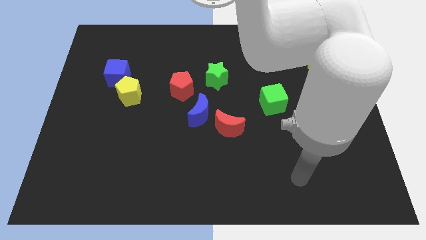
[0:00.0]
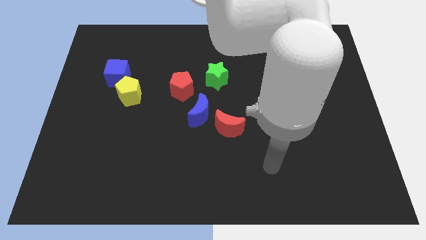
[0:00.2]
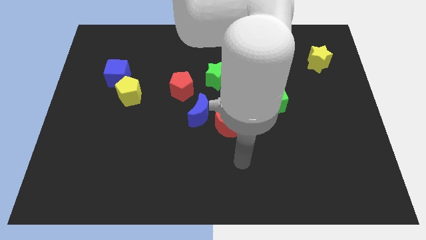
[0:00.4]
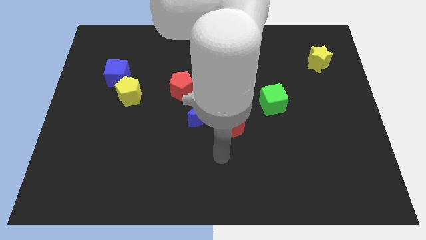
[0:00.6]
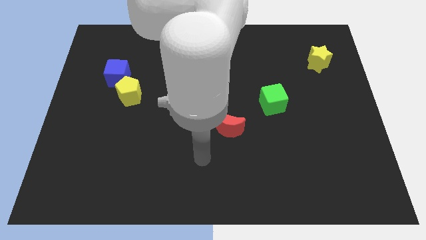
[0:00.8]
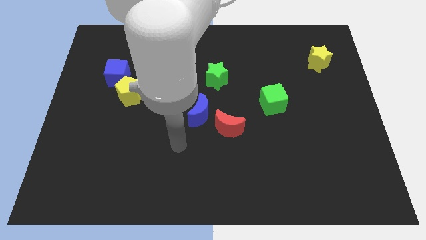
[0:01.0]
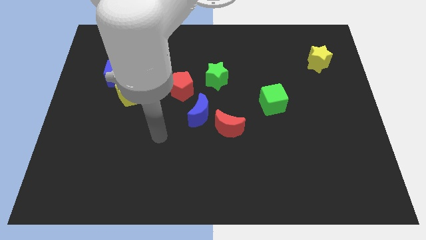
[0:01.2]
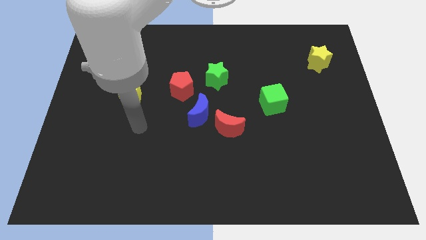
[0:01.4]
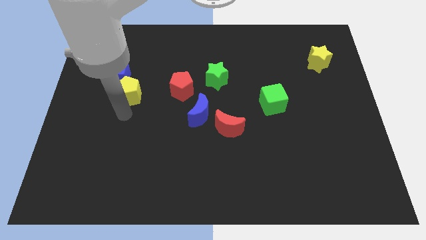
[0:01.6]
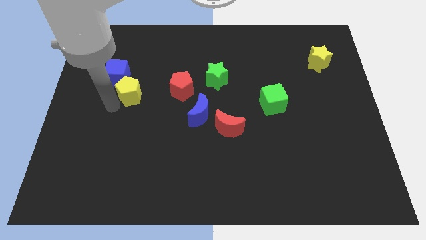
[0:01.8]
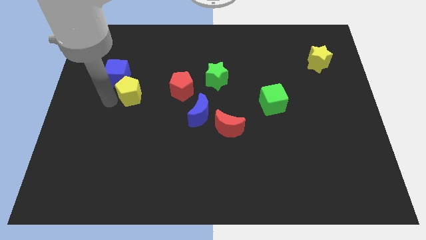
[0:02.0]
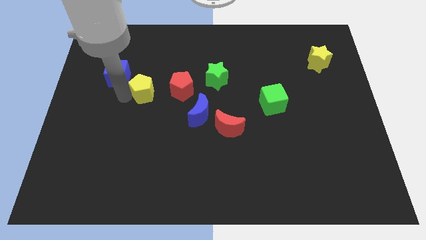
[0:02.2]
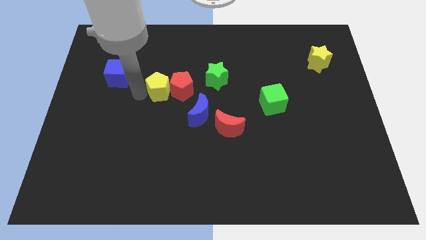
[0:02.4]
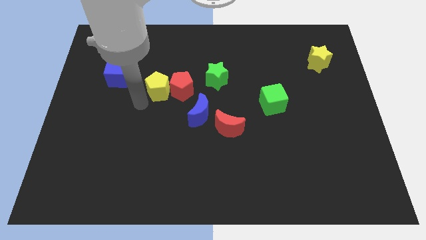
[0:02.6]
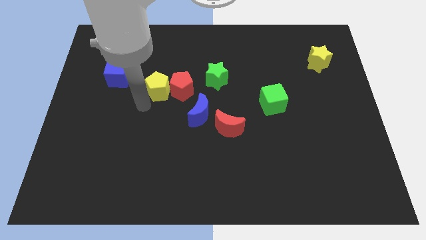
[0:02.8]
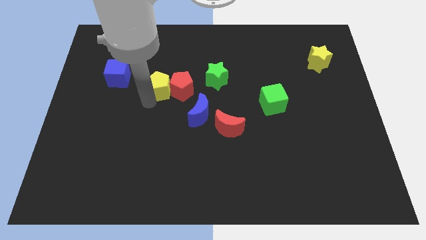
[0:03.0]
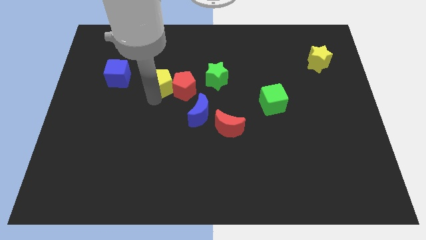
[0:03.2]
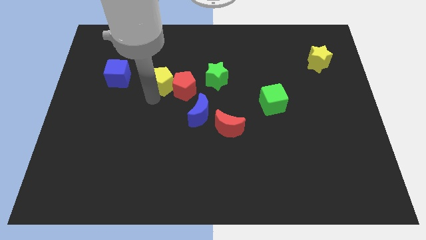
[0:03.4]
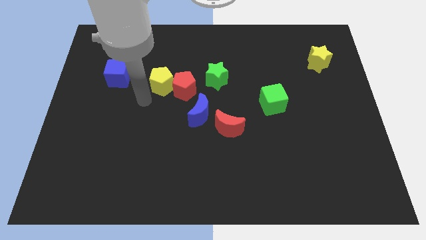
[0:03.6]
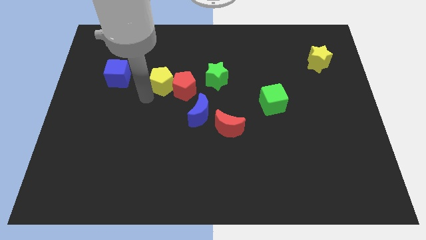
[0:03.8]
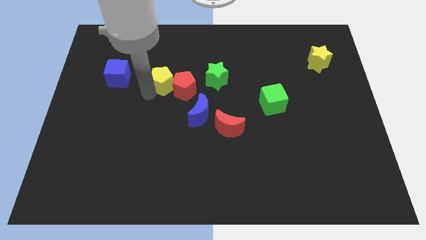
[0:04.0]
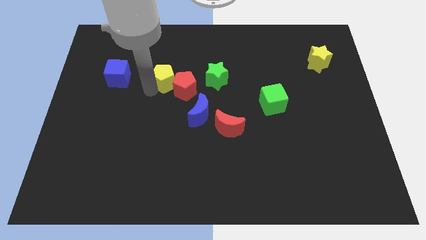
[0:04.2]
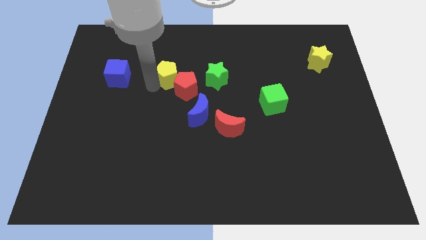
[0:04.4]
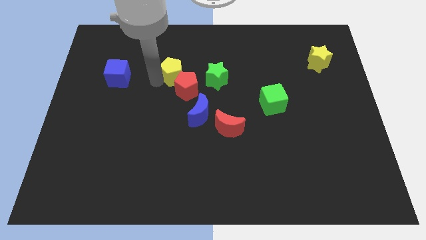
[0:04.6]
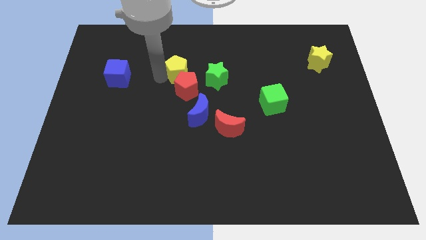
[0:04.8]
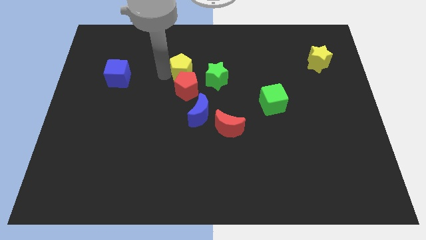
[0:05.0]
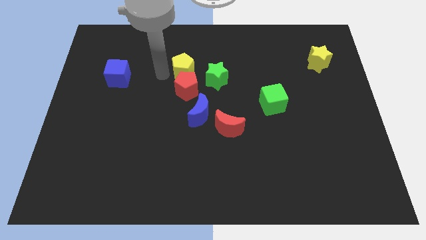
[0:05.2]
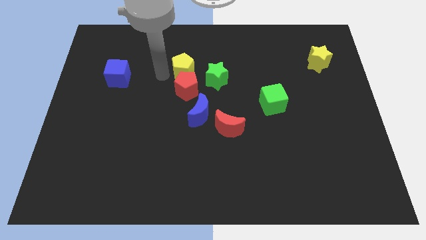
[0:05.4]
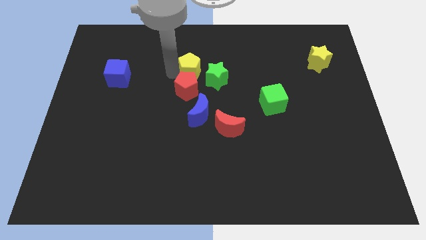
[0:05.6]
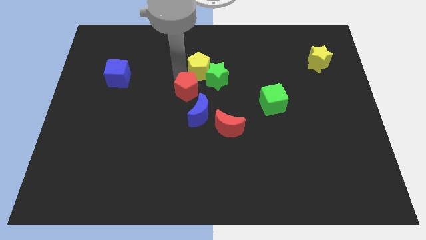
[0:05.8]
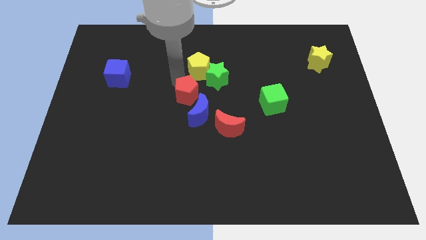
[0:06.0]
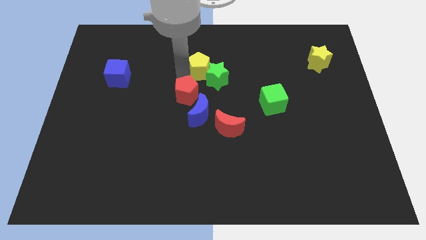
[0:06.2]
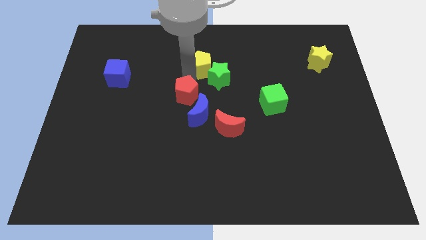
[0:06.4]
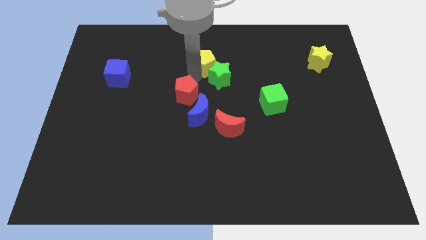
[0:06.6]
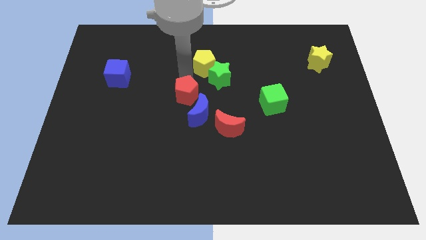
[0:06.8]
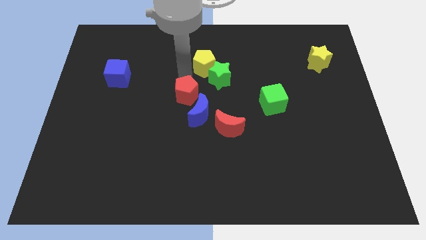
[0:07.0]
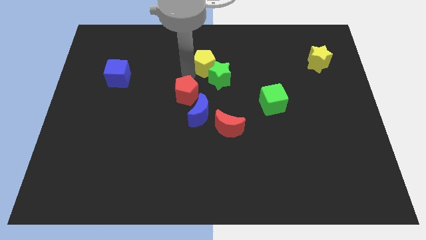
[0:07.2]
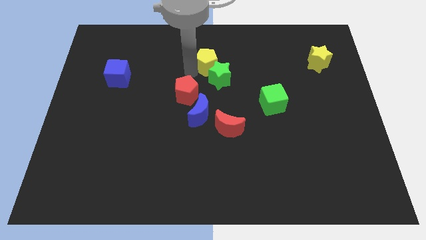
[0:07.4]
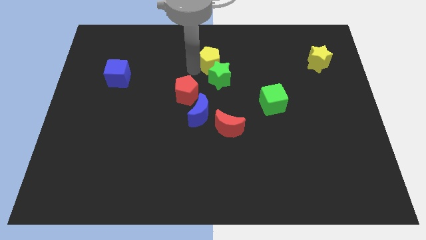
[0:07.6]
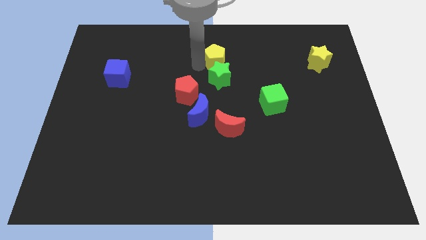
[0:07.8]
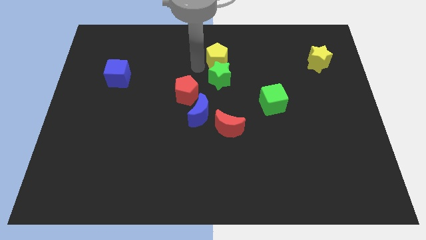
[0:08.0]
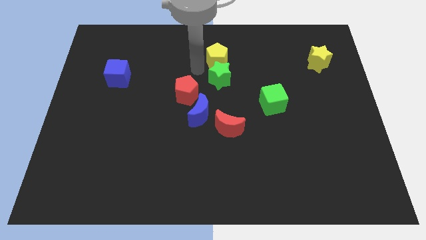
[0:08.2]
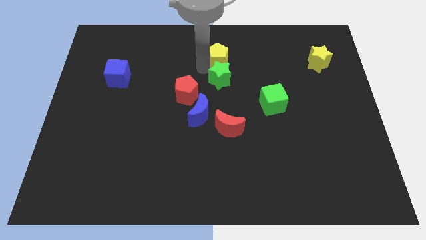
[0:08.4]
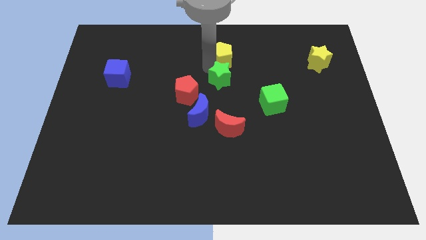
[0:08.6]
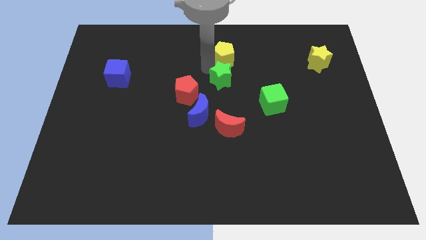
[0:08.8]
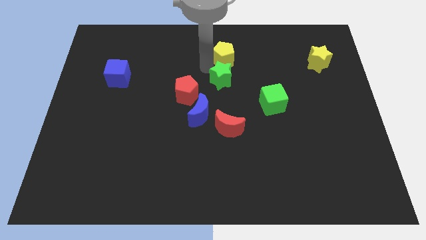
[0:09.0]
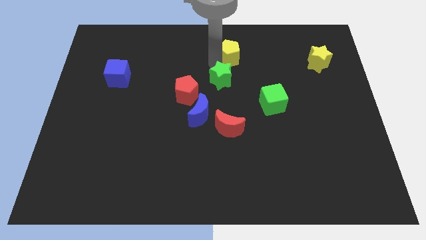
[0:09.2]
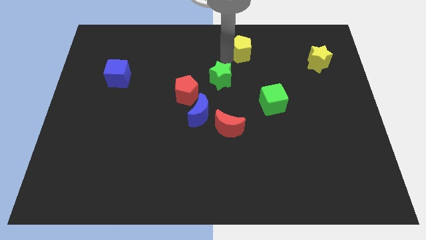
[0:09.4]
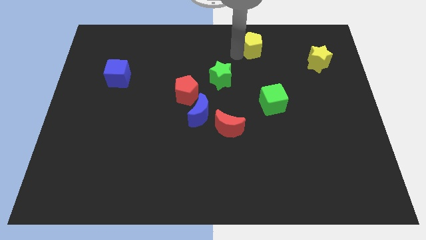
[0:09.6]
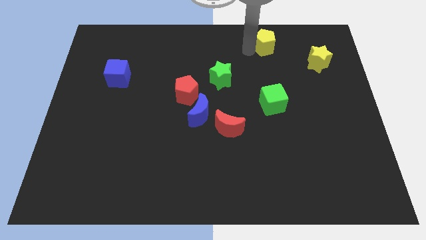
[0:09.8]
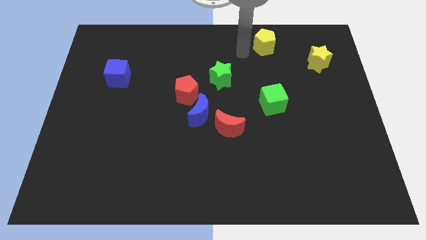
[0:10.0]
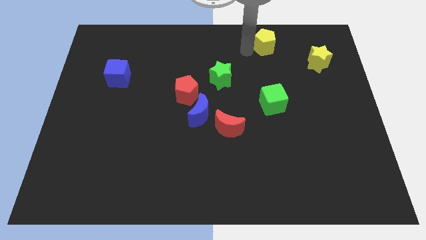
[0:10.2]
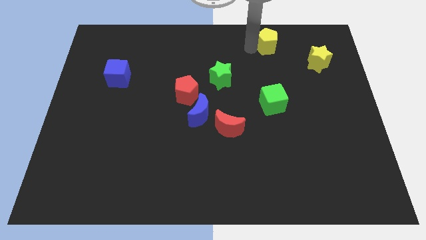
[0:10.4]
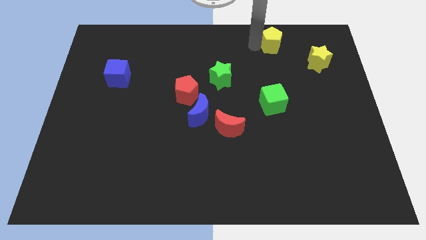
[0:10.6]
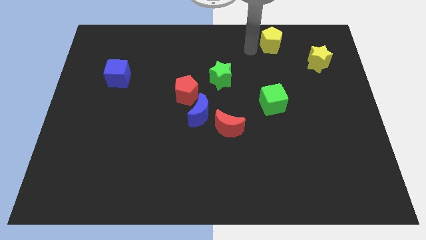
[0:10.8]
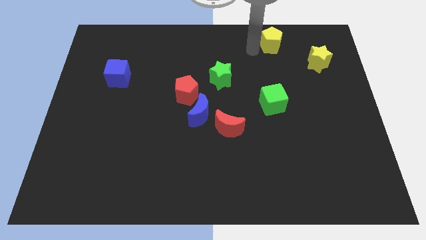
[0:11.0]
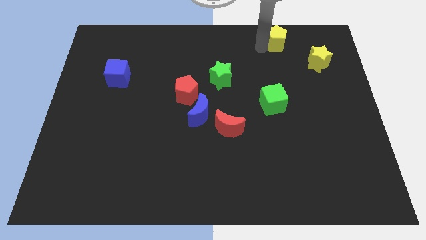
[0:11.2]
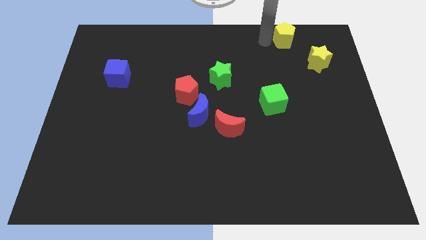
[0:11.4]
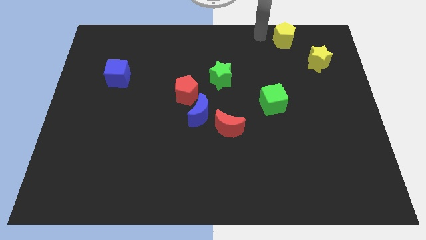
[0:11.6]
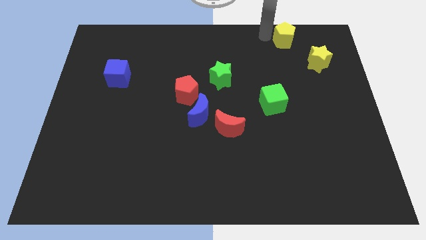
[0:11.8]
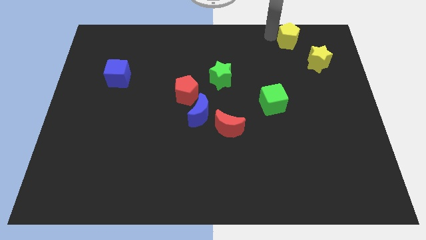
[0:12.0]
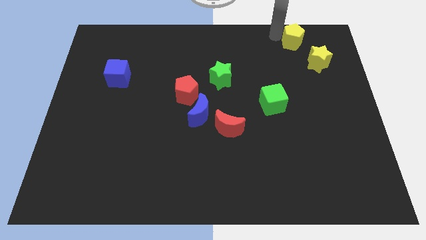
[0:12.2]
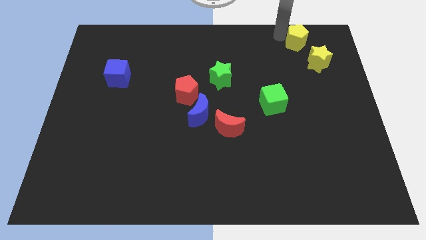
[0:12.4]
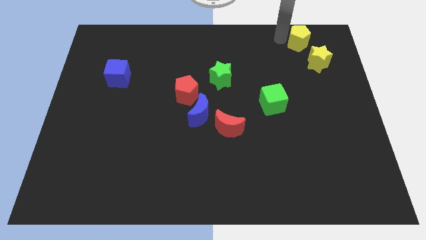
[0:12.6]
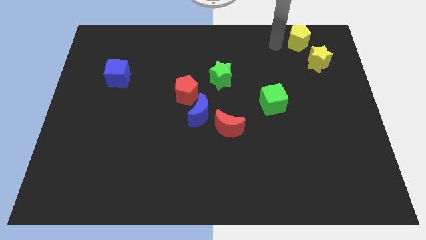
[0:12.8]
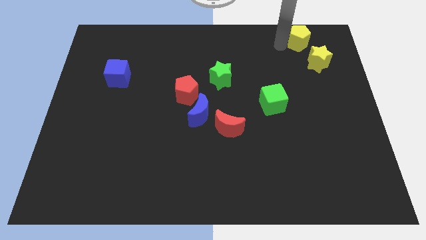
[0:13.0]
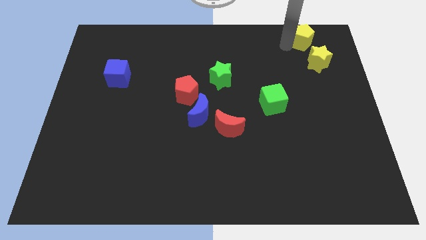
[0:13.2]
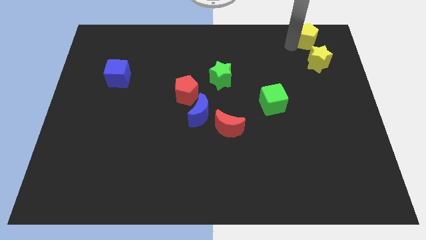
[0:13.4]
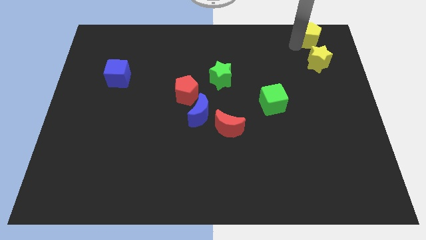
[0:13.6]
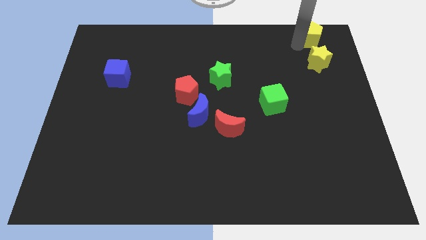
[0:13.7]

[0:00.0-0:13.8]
push the yellow pentagon to the top right
